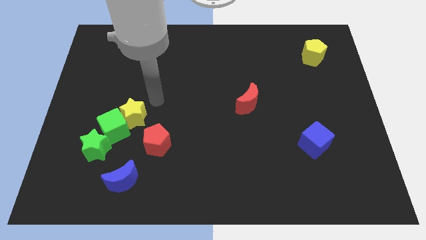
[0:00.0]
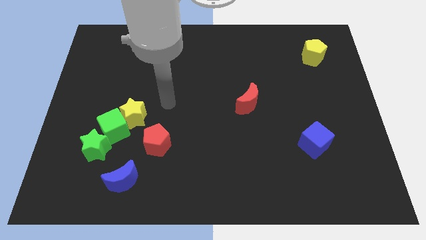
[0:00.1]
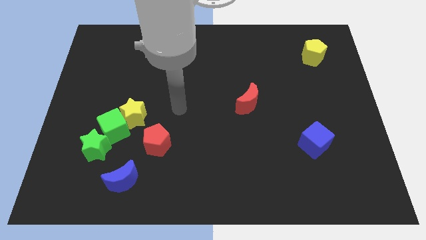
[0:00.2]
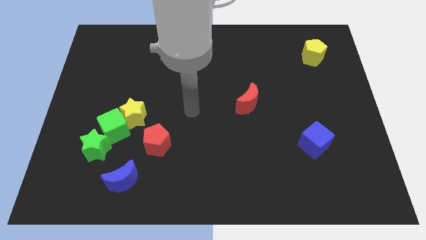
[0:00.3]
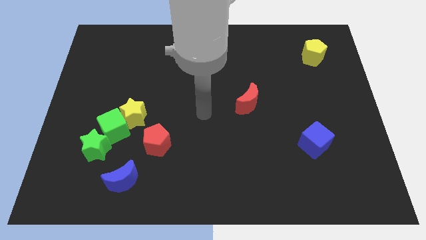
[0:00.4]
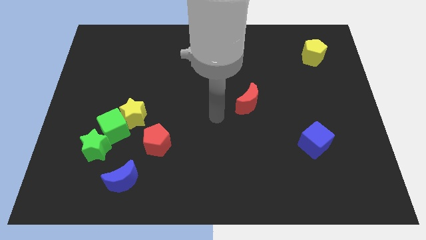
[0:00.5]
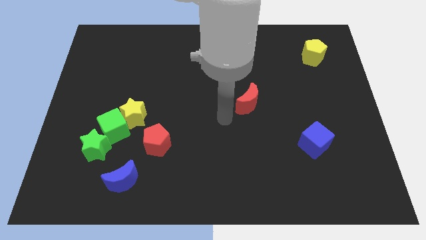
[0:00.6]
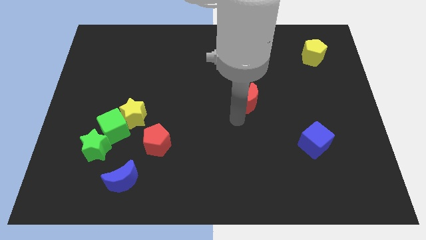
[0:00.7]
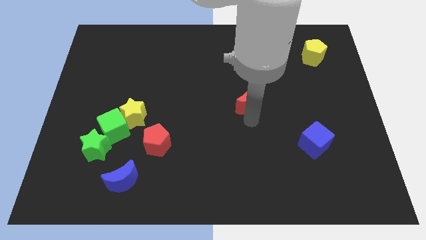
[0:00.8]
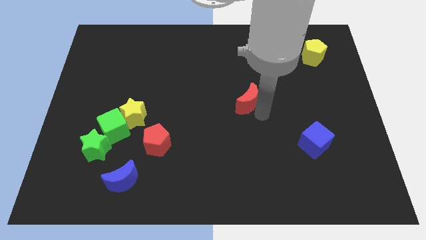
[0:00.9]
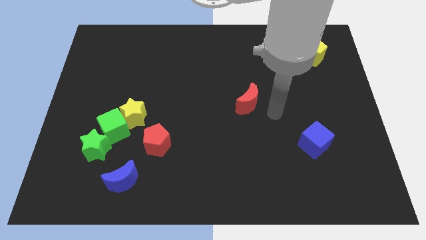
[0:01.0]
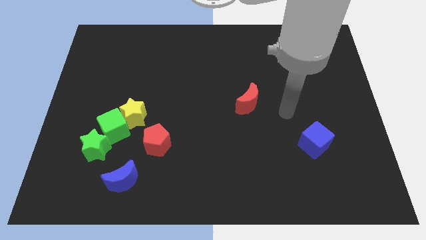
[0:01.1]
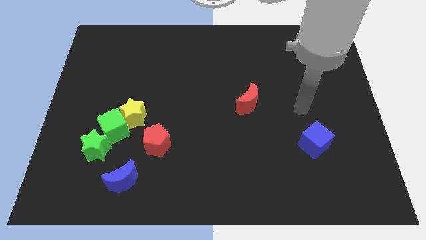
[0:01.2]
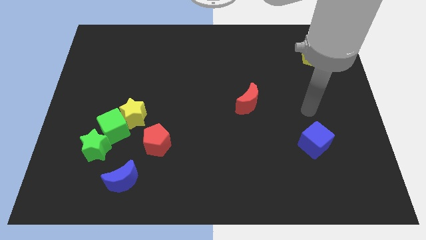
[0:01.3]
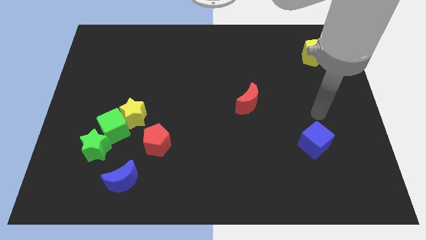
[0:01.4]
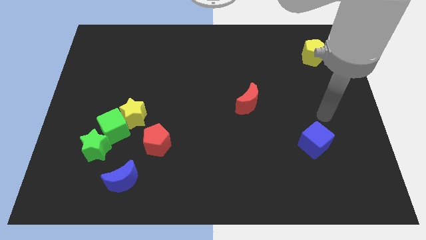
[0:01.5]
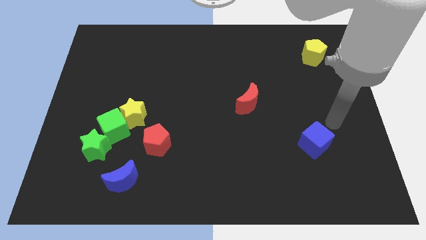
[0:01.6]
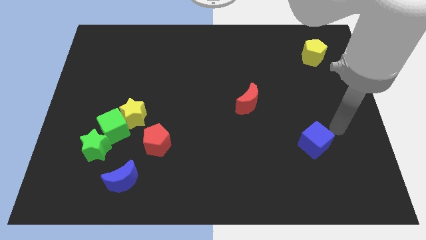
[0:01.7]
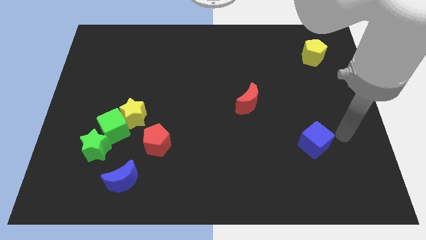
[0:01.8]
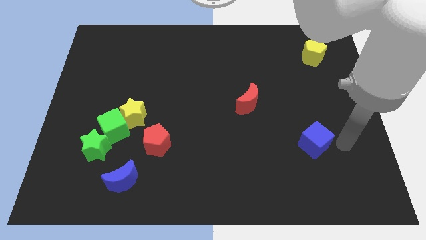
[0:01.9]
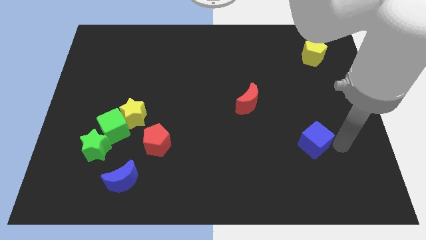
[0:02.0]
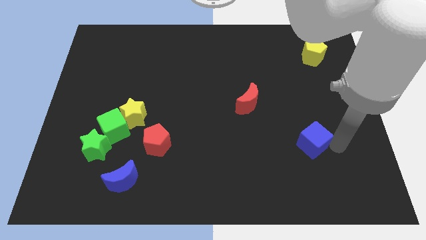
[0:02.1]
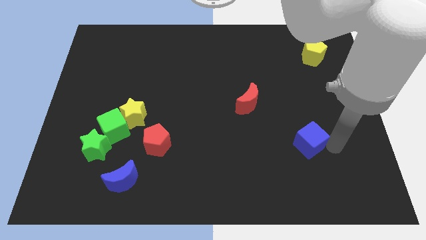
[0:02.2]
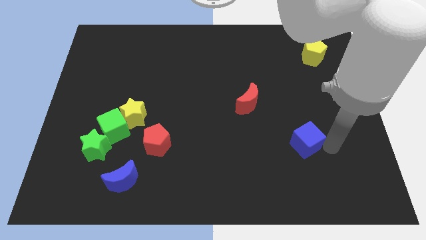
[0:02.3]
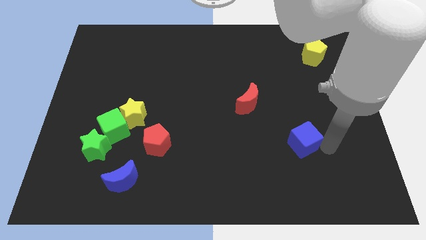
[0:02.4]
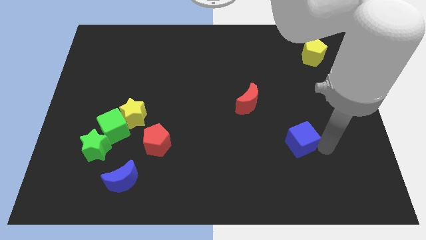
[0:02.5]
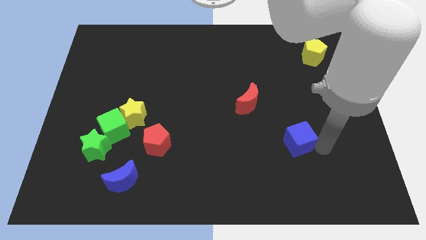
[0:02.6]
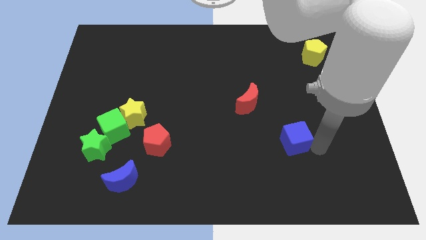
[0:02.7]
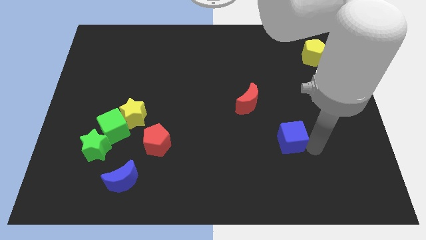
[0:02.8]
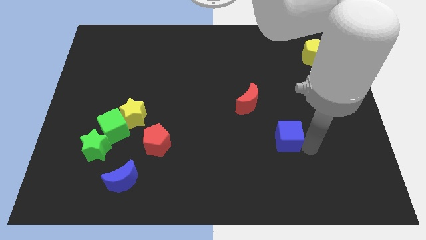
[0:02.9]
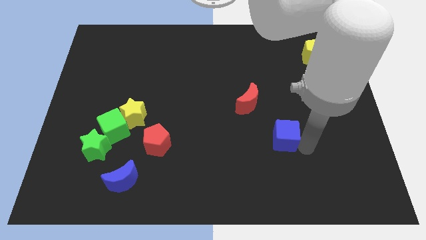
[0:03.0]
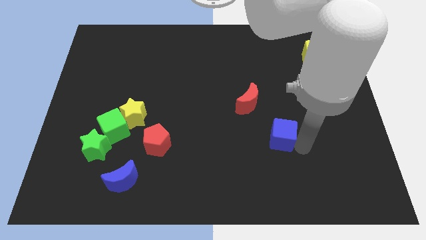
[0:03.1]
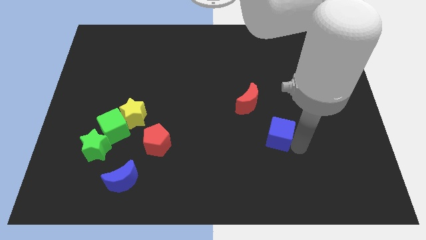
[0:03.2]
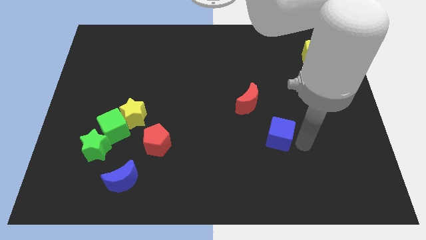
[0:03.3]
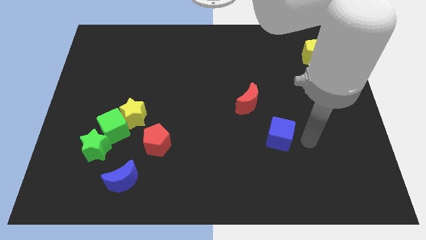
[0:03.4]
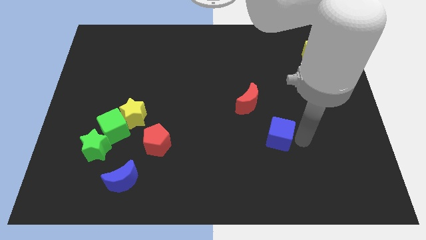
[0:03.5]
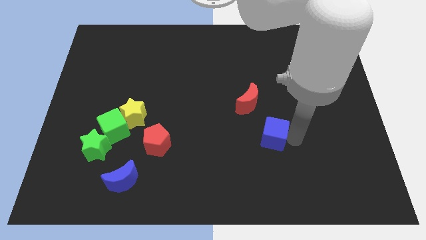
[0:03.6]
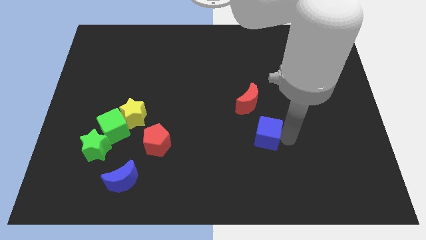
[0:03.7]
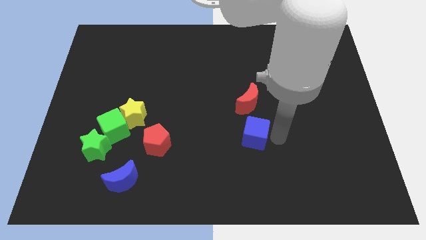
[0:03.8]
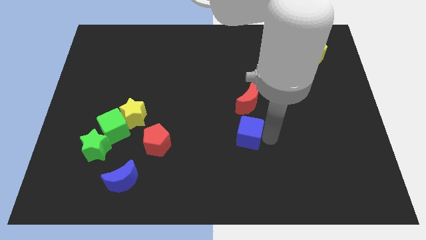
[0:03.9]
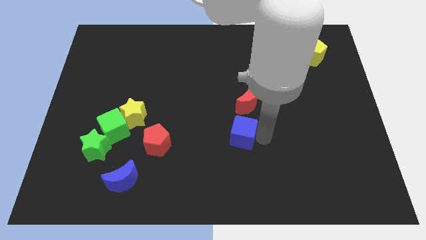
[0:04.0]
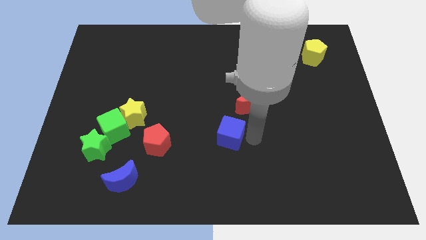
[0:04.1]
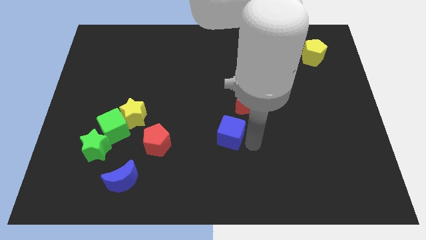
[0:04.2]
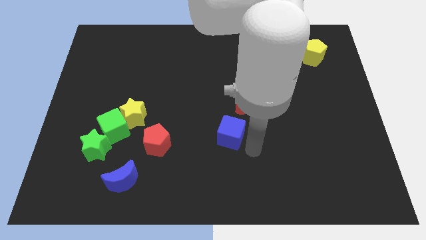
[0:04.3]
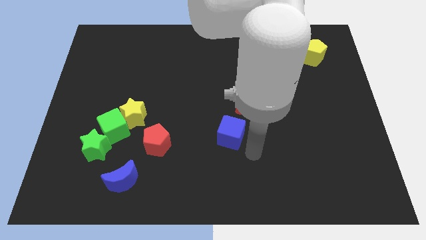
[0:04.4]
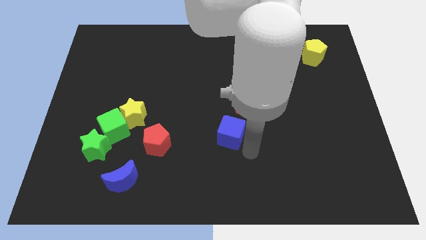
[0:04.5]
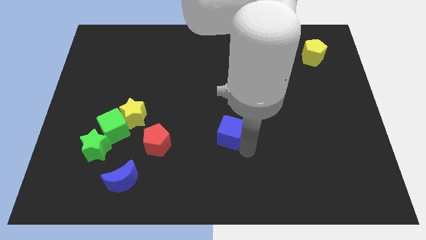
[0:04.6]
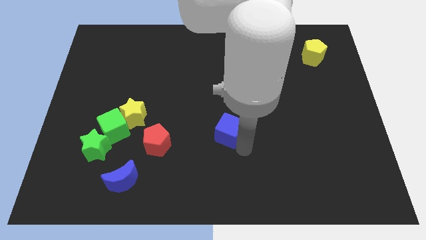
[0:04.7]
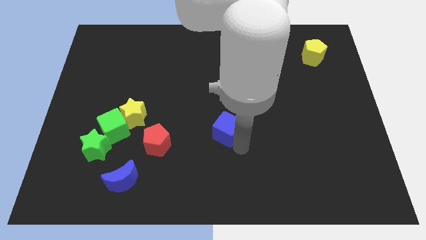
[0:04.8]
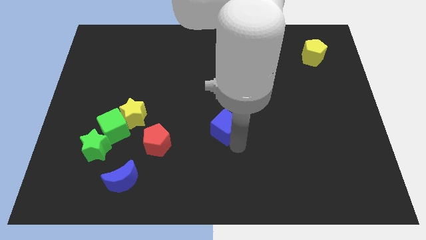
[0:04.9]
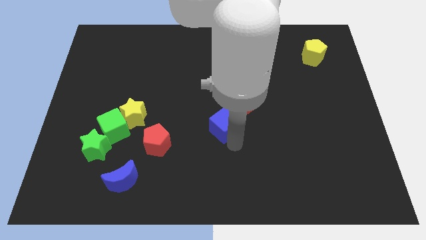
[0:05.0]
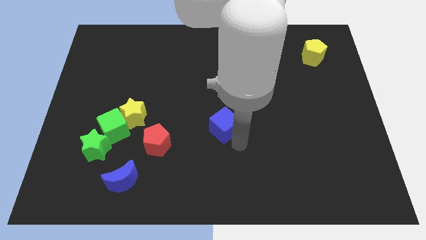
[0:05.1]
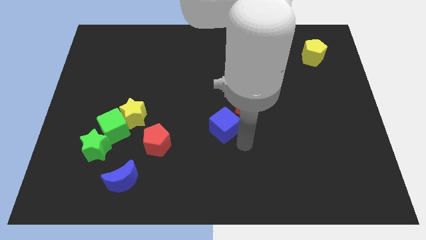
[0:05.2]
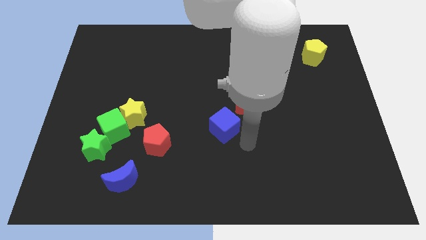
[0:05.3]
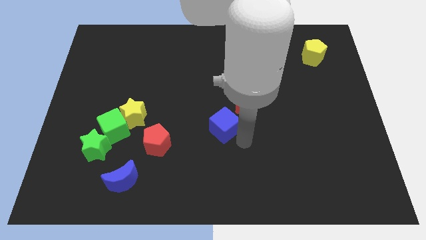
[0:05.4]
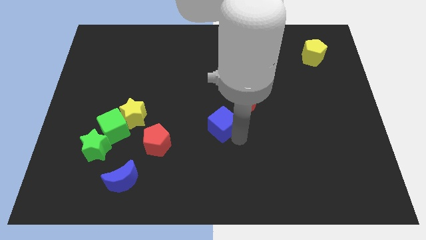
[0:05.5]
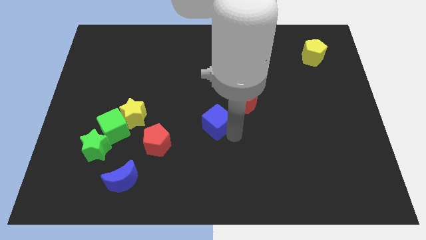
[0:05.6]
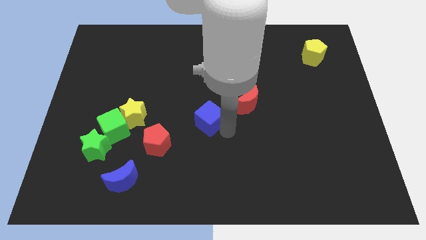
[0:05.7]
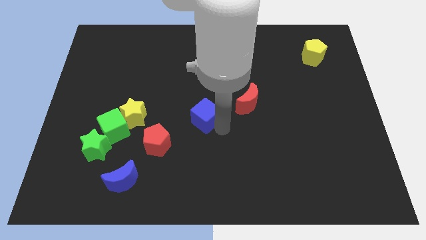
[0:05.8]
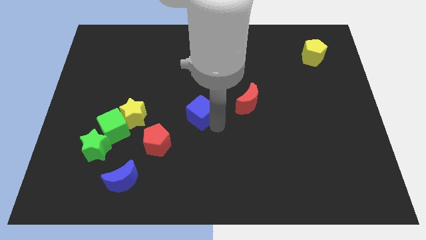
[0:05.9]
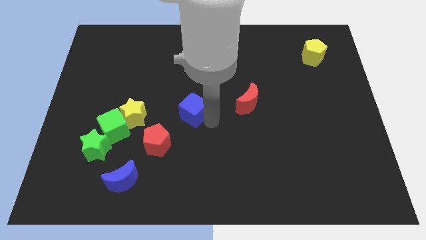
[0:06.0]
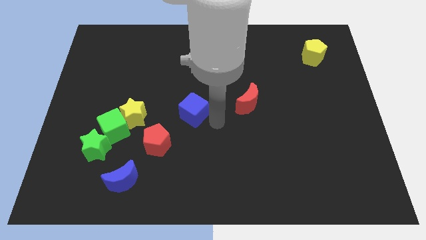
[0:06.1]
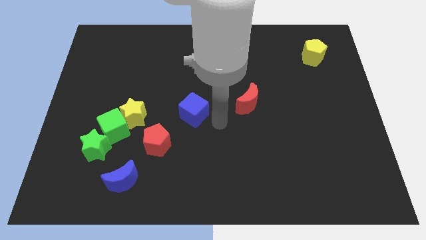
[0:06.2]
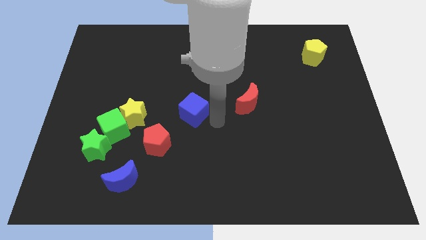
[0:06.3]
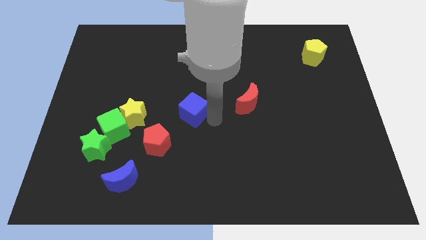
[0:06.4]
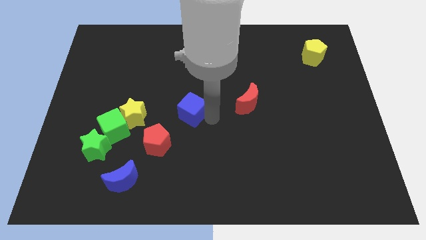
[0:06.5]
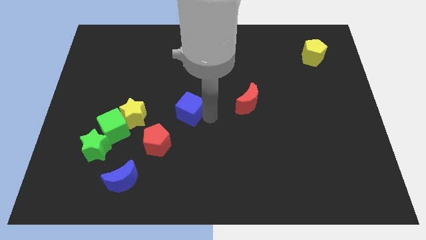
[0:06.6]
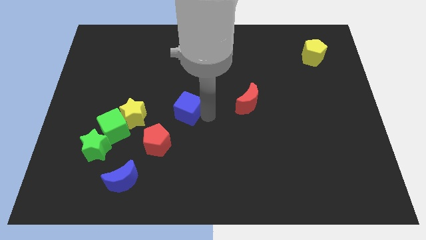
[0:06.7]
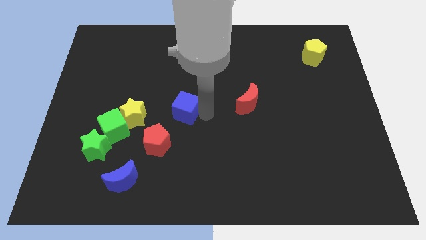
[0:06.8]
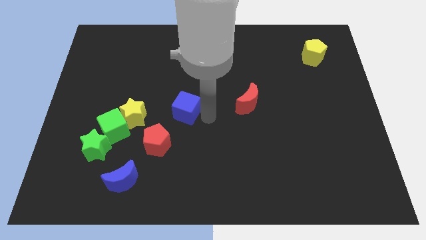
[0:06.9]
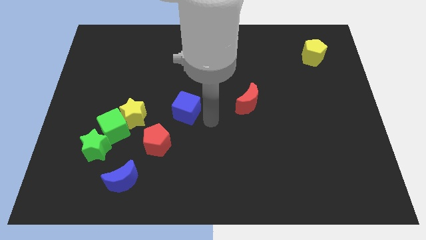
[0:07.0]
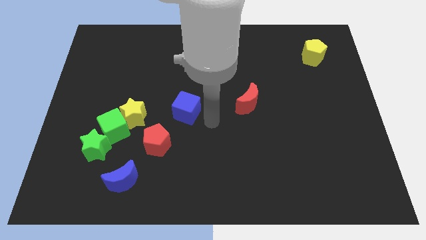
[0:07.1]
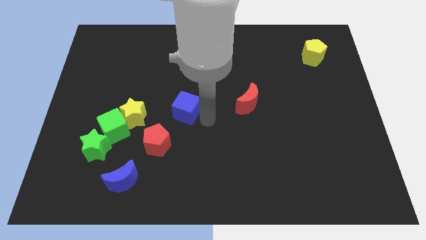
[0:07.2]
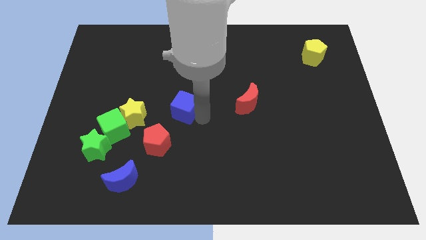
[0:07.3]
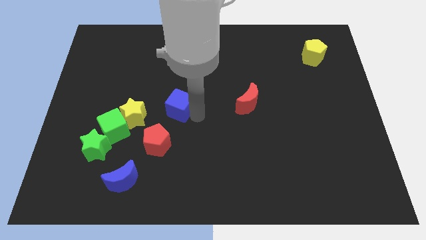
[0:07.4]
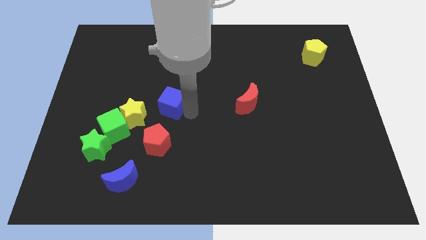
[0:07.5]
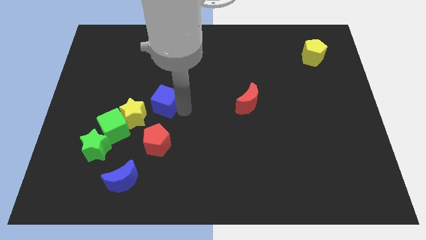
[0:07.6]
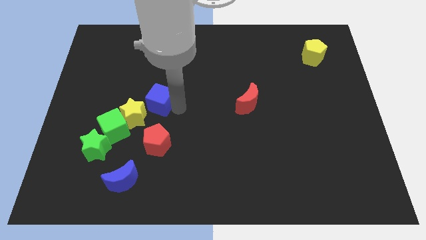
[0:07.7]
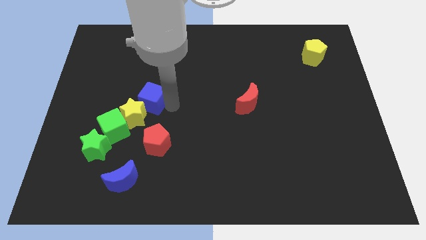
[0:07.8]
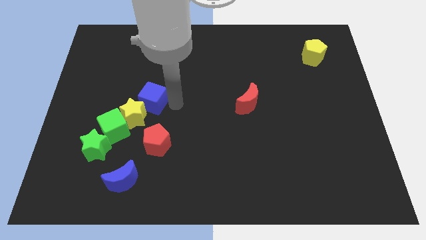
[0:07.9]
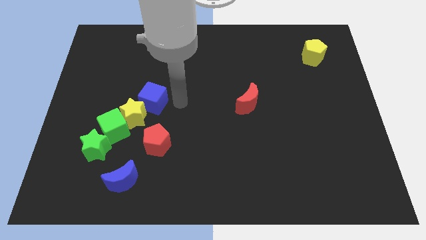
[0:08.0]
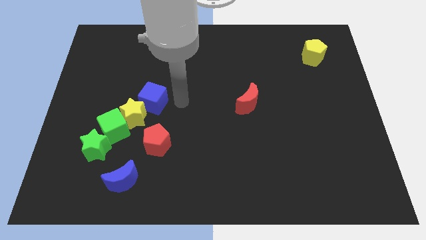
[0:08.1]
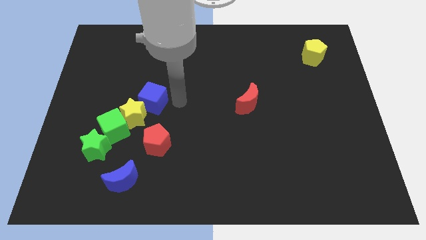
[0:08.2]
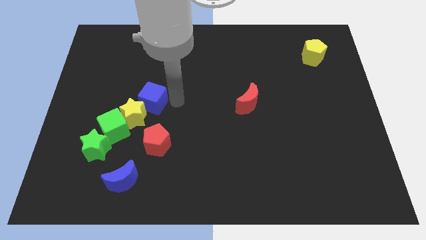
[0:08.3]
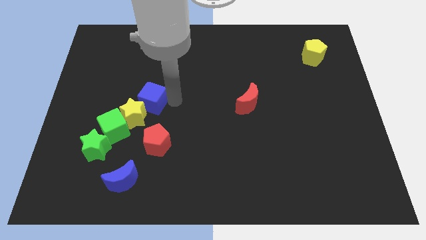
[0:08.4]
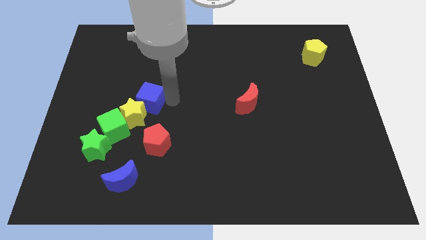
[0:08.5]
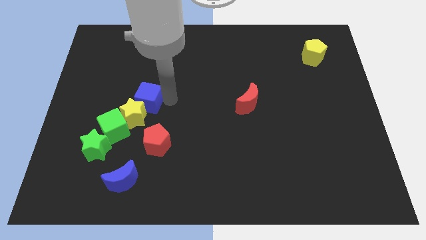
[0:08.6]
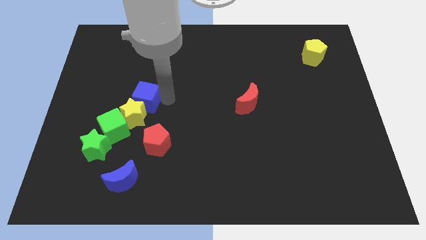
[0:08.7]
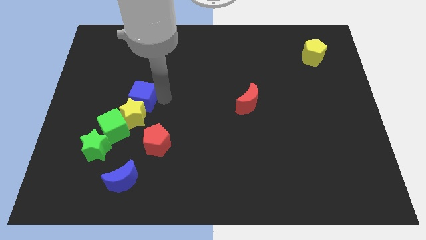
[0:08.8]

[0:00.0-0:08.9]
move the blue cube diagonally up and to the left of the yellow star
